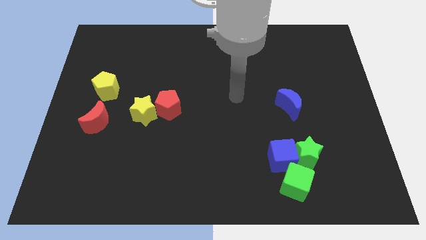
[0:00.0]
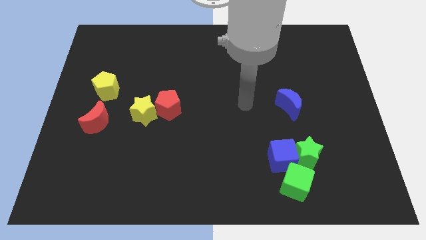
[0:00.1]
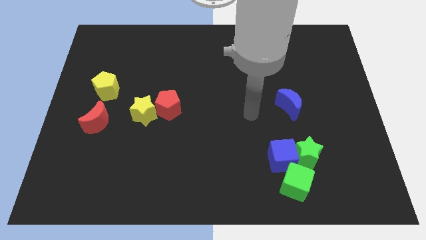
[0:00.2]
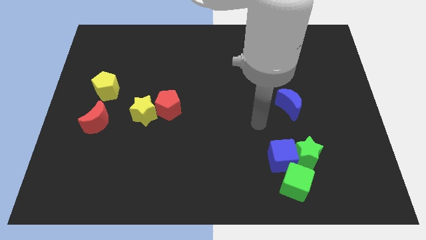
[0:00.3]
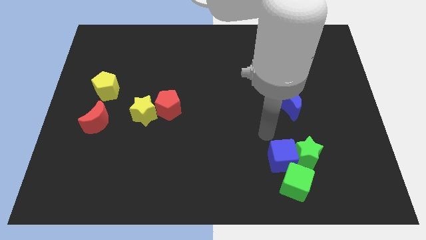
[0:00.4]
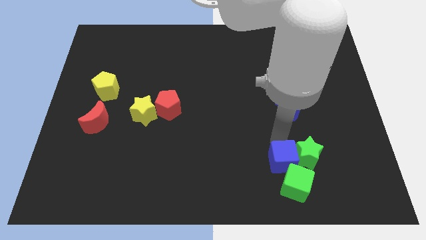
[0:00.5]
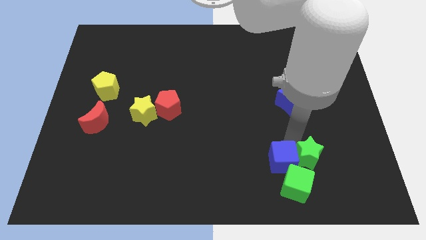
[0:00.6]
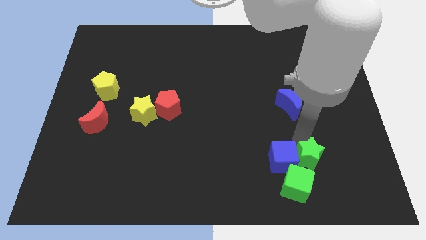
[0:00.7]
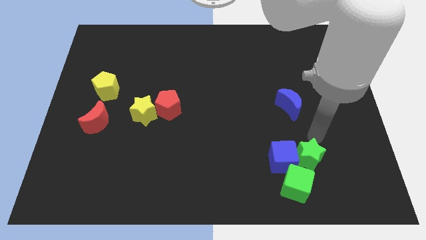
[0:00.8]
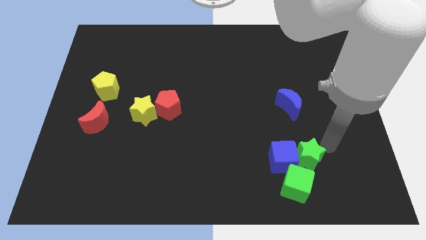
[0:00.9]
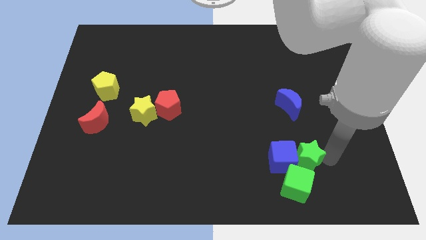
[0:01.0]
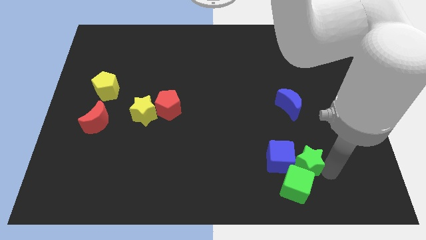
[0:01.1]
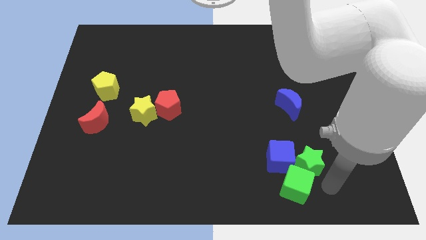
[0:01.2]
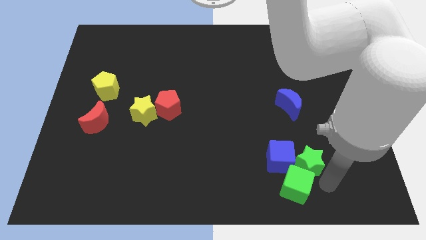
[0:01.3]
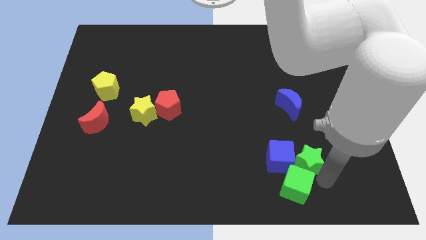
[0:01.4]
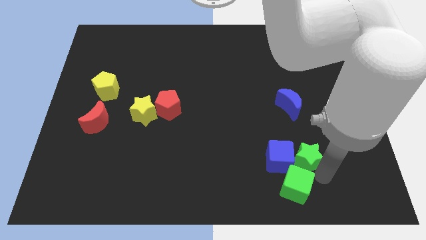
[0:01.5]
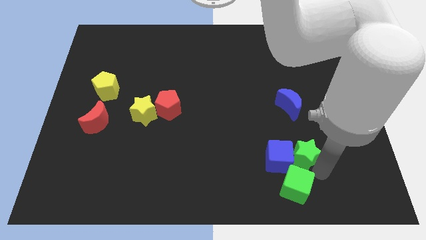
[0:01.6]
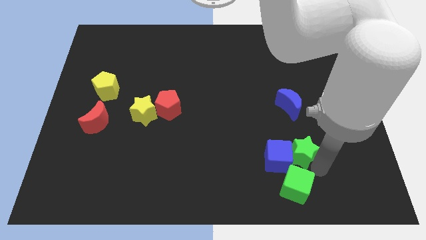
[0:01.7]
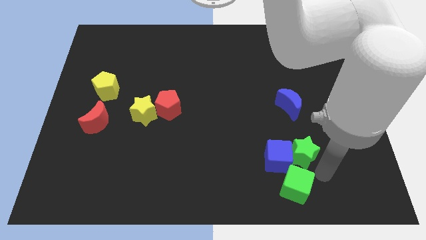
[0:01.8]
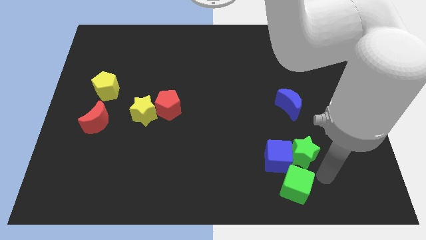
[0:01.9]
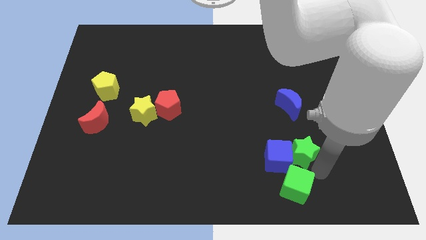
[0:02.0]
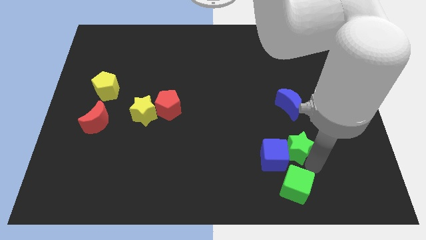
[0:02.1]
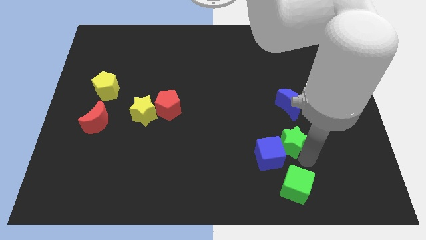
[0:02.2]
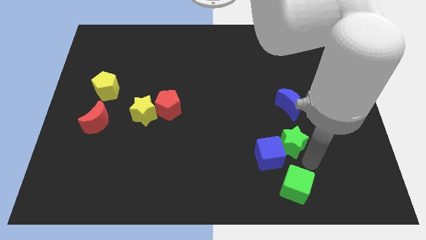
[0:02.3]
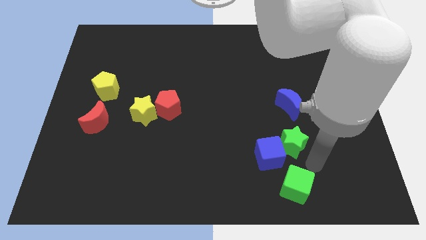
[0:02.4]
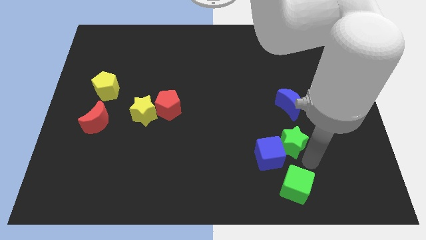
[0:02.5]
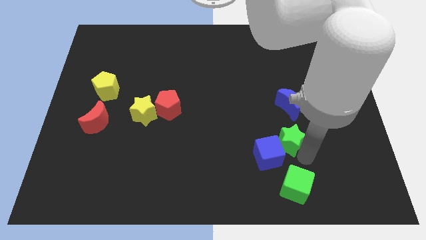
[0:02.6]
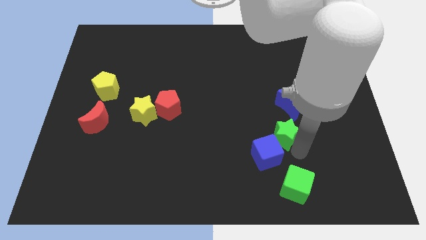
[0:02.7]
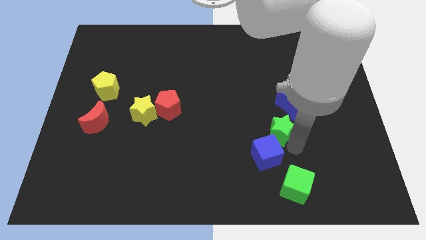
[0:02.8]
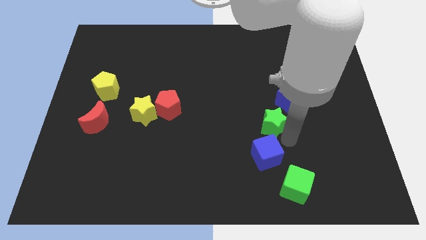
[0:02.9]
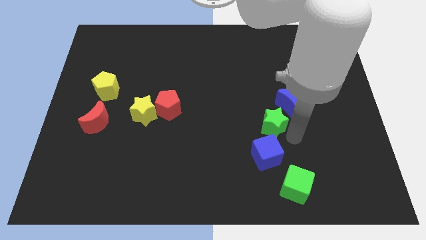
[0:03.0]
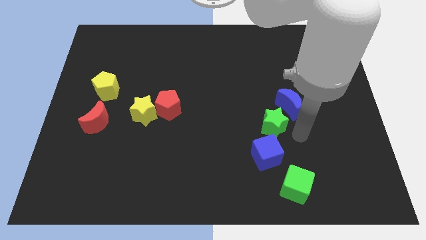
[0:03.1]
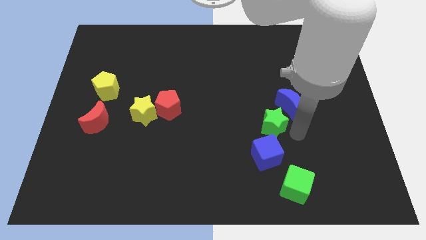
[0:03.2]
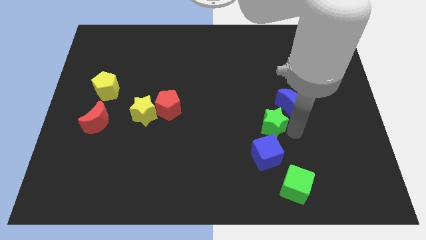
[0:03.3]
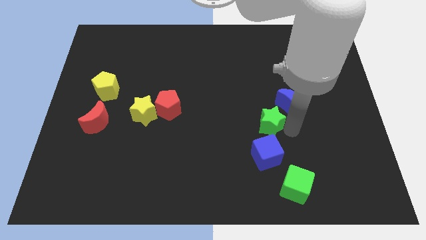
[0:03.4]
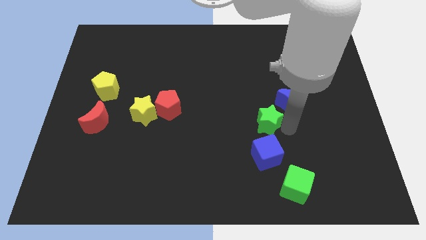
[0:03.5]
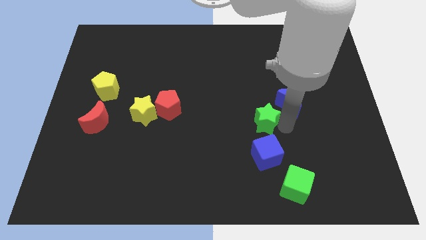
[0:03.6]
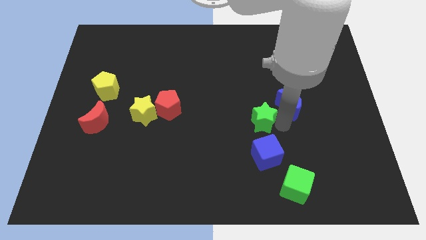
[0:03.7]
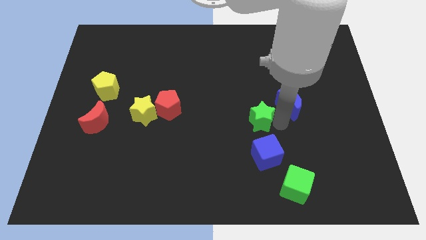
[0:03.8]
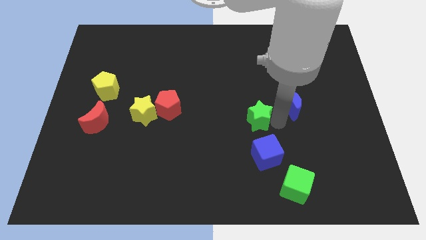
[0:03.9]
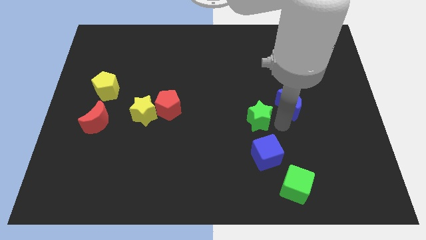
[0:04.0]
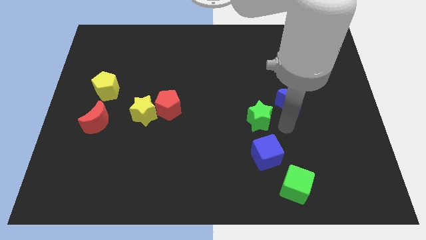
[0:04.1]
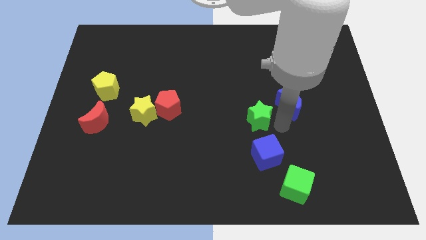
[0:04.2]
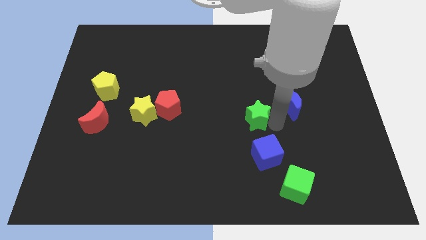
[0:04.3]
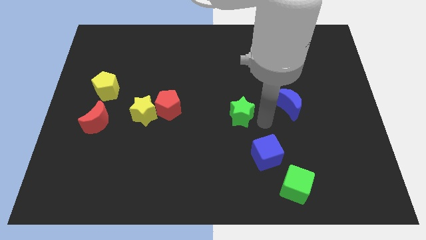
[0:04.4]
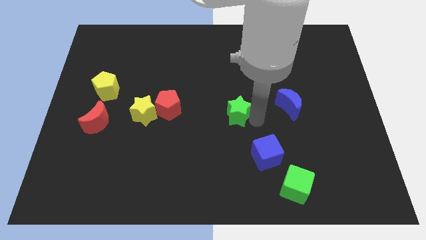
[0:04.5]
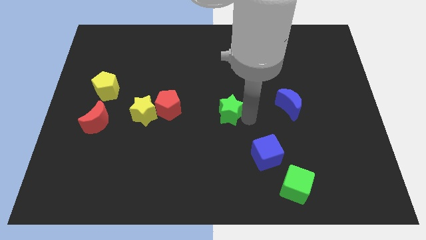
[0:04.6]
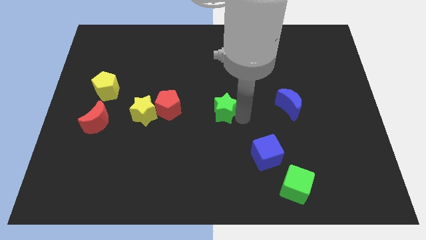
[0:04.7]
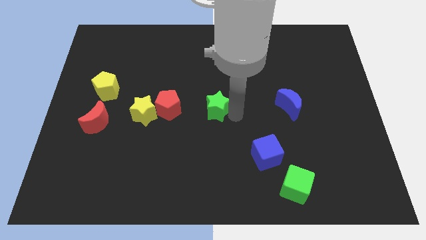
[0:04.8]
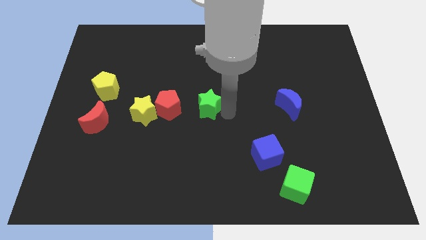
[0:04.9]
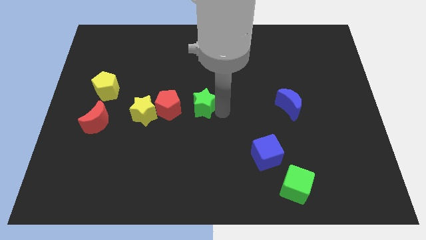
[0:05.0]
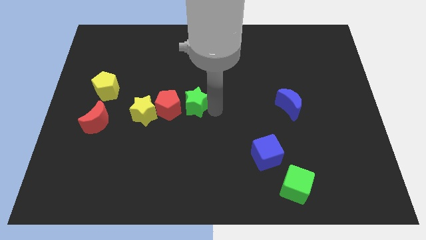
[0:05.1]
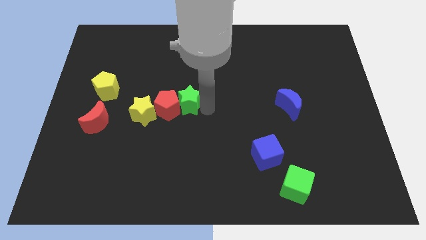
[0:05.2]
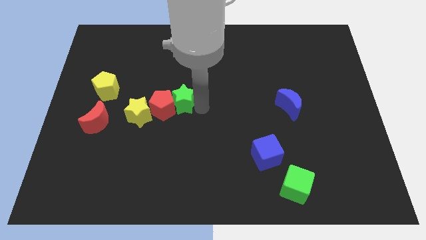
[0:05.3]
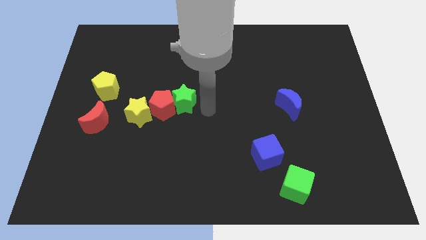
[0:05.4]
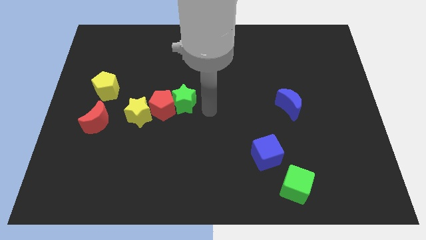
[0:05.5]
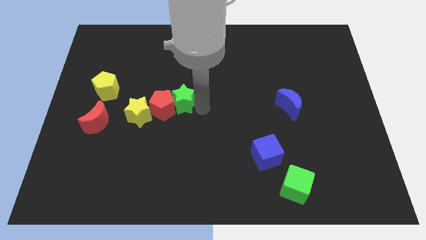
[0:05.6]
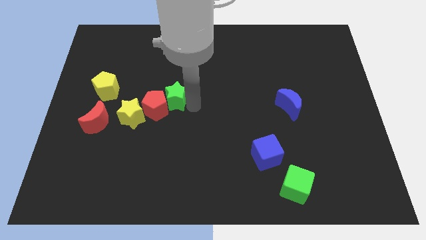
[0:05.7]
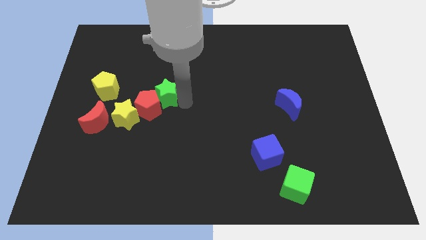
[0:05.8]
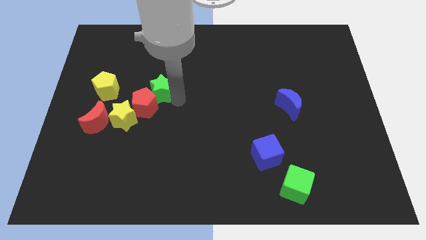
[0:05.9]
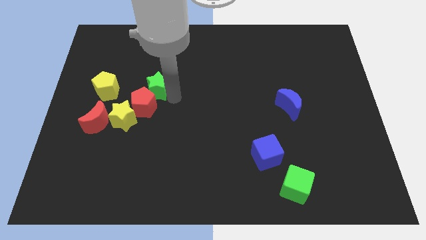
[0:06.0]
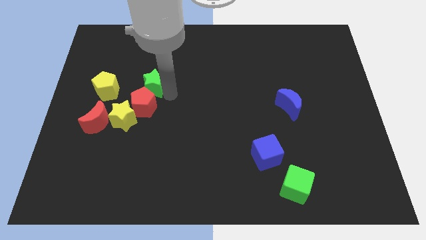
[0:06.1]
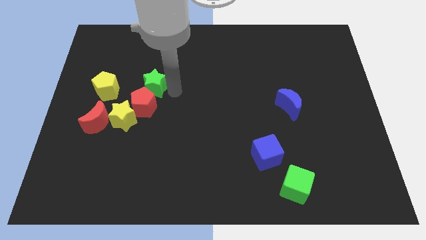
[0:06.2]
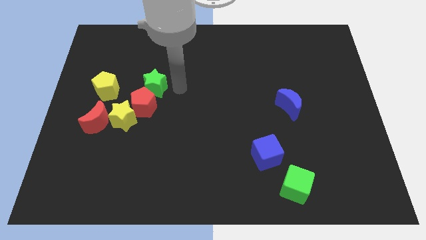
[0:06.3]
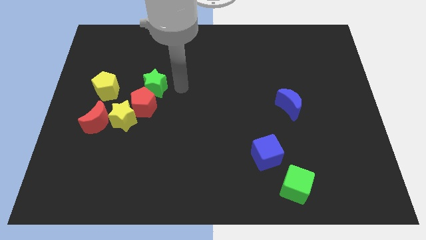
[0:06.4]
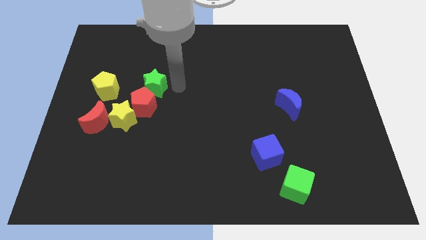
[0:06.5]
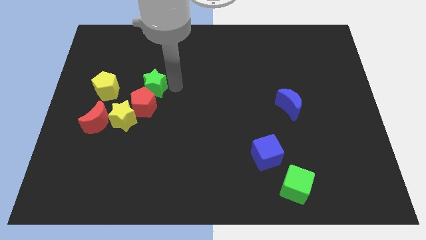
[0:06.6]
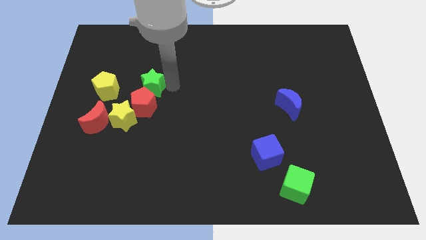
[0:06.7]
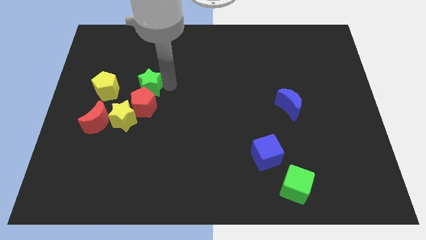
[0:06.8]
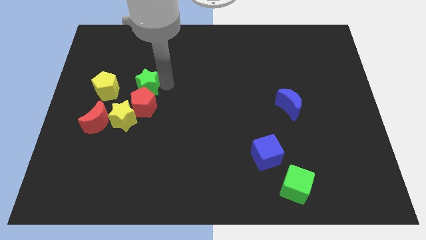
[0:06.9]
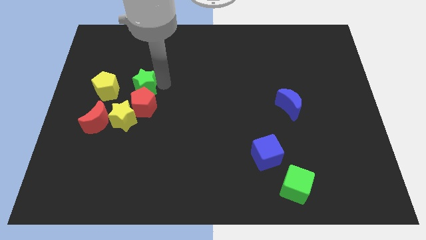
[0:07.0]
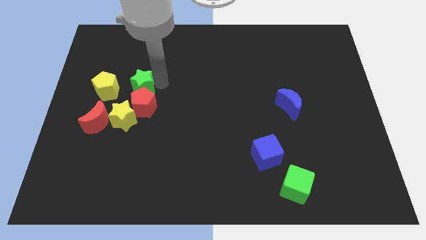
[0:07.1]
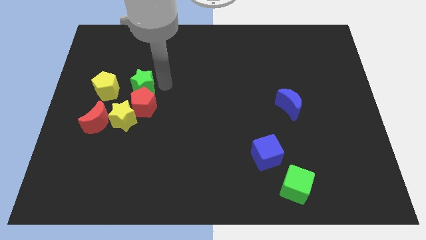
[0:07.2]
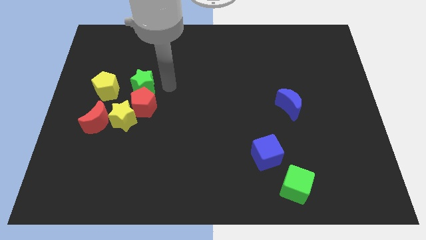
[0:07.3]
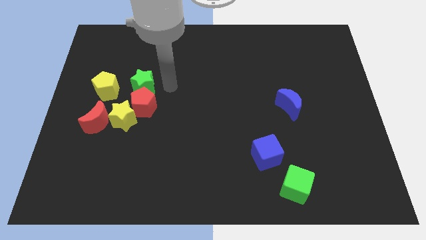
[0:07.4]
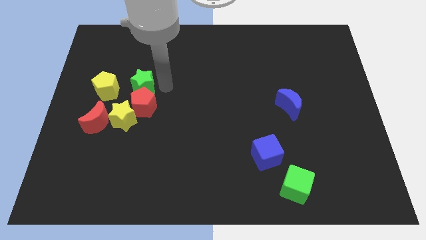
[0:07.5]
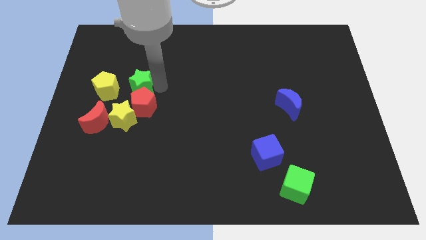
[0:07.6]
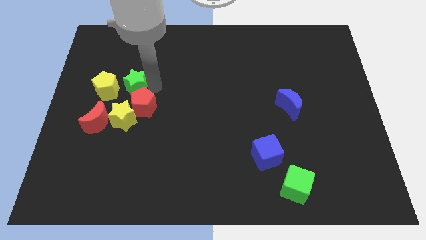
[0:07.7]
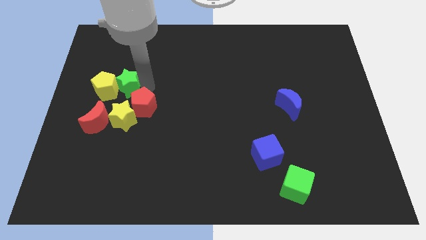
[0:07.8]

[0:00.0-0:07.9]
slide the green star towards the yellow pentagon
